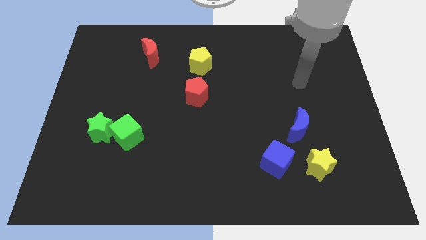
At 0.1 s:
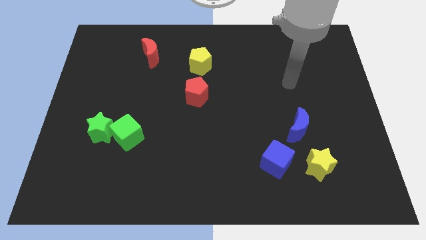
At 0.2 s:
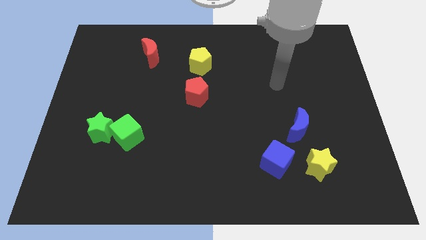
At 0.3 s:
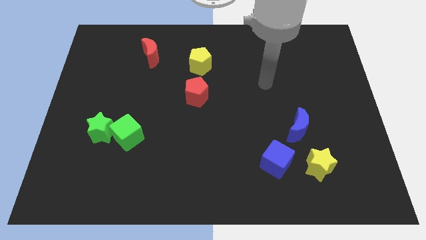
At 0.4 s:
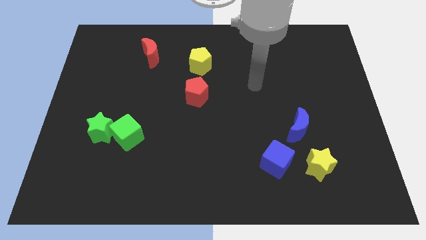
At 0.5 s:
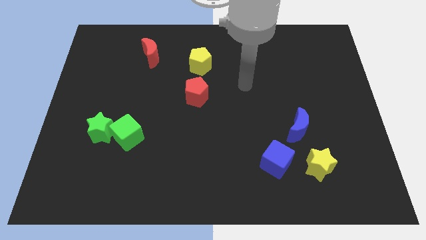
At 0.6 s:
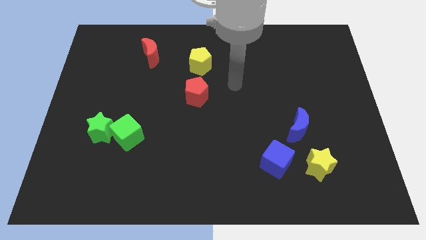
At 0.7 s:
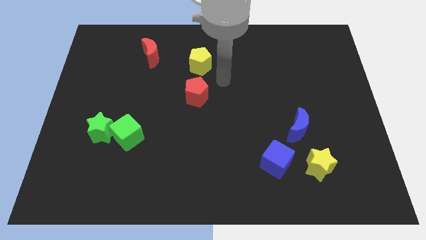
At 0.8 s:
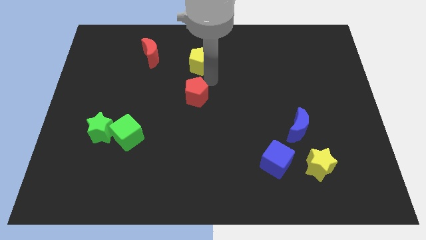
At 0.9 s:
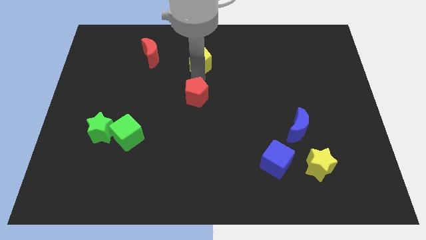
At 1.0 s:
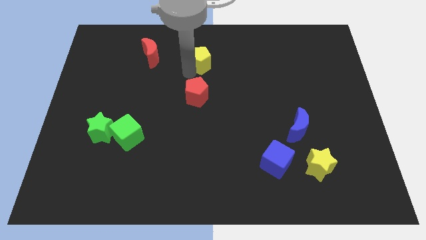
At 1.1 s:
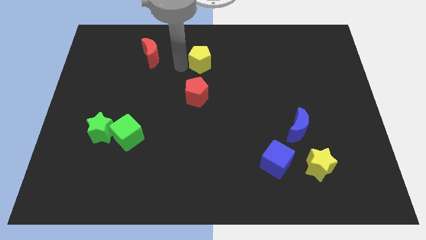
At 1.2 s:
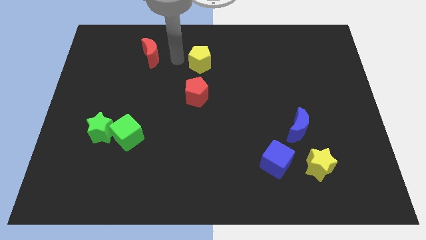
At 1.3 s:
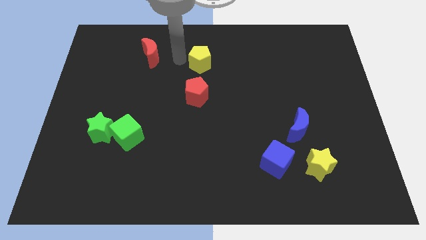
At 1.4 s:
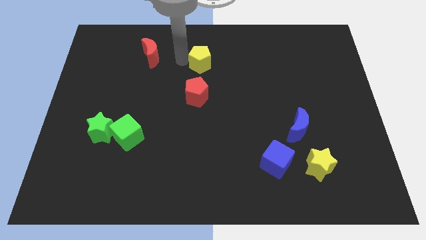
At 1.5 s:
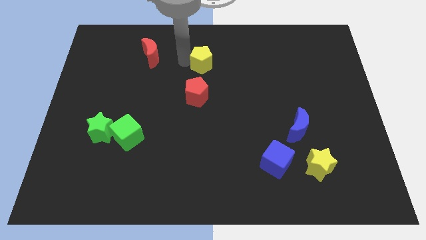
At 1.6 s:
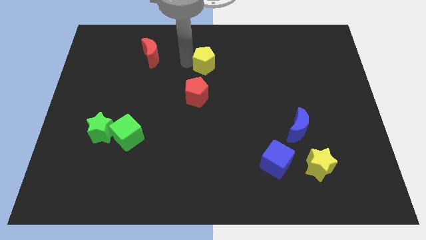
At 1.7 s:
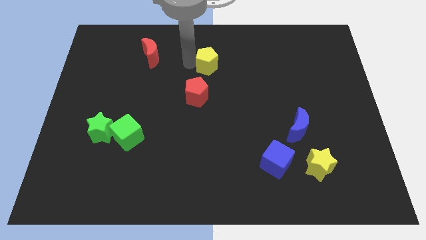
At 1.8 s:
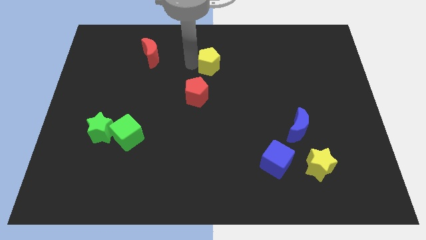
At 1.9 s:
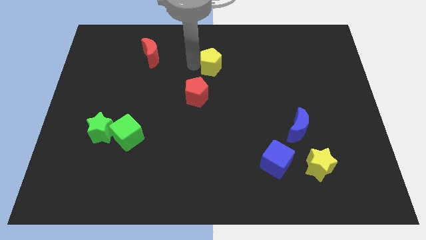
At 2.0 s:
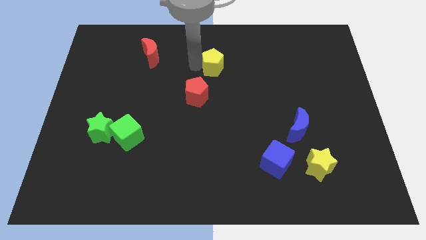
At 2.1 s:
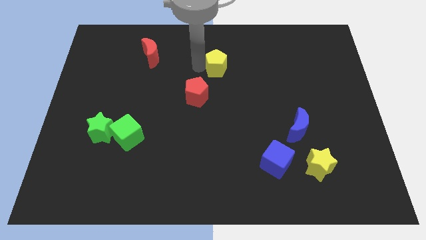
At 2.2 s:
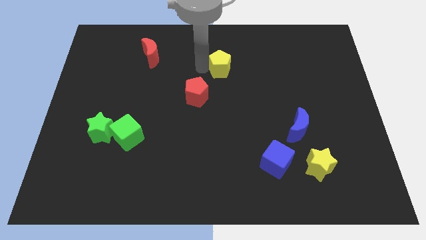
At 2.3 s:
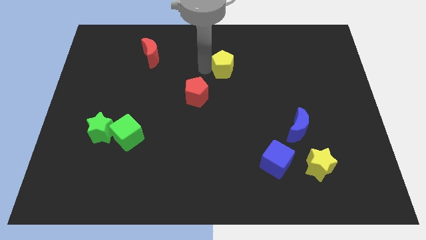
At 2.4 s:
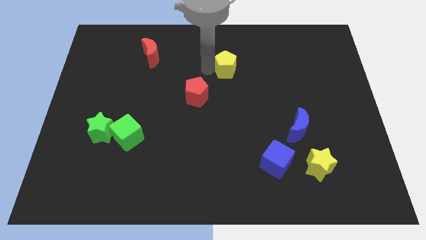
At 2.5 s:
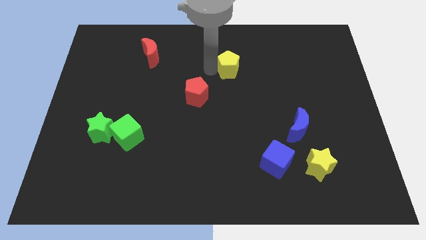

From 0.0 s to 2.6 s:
slide the yellow pentagon to the right a little bit

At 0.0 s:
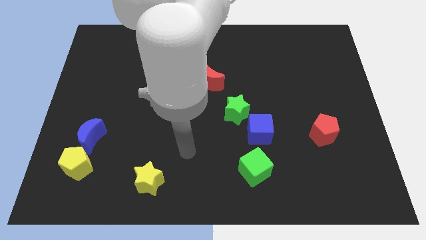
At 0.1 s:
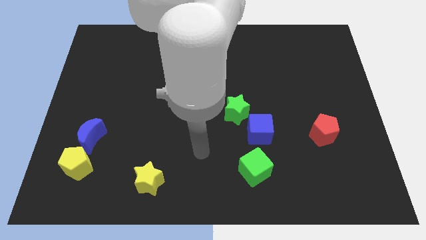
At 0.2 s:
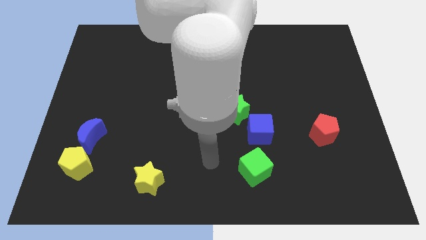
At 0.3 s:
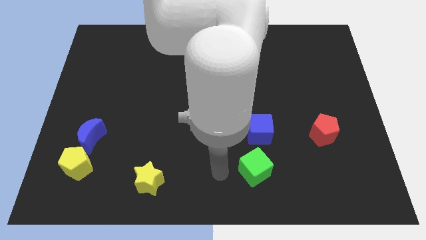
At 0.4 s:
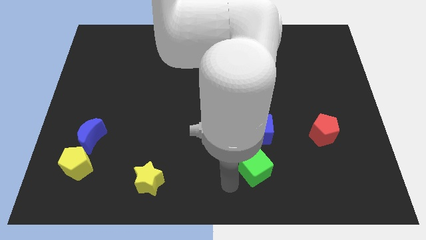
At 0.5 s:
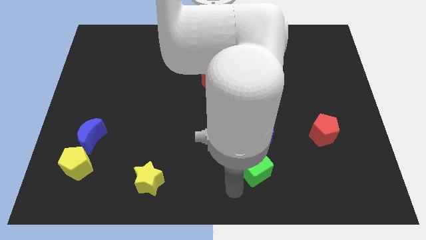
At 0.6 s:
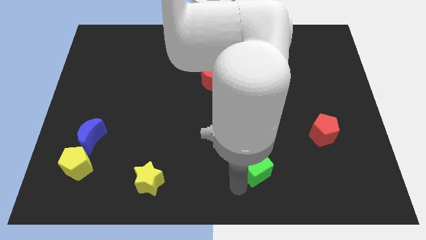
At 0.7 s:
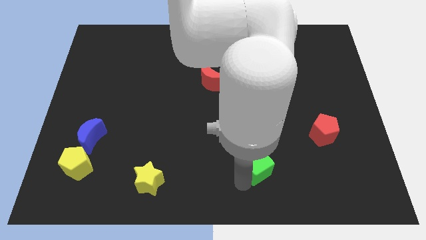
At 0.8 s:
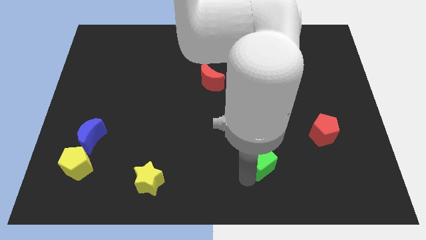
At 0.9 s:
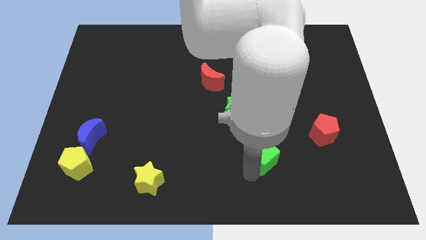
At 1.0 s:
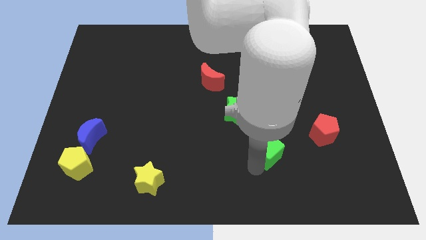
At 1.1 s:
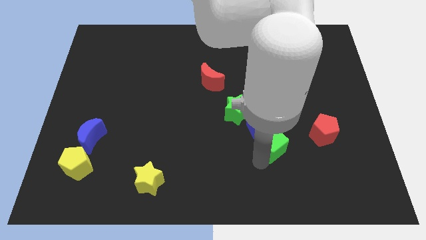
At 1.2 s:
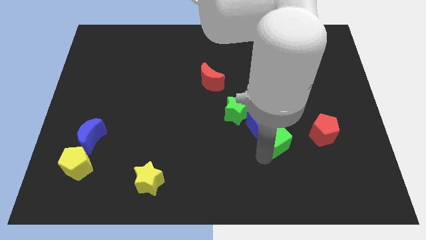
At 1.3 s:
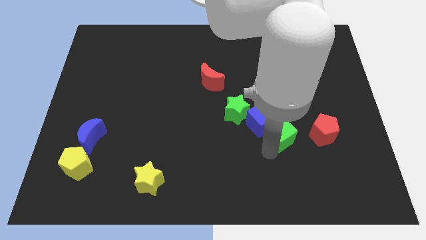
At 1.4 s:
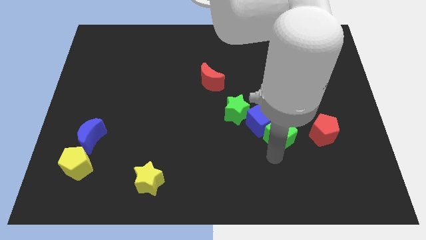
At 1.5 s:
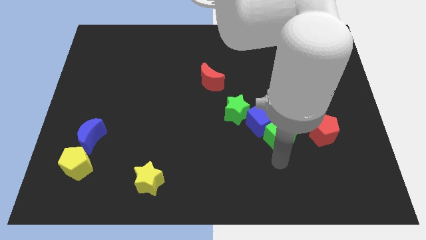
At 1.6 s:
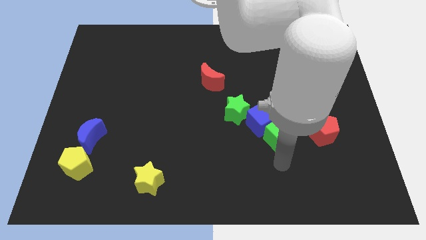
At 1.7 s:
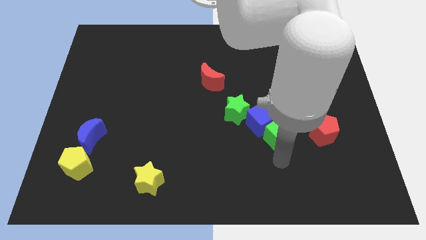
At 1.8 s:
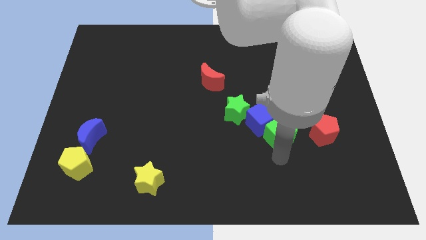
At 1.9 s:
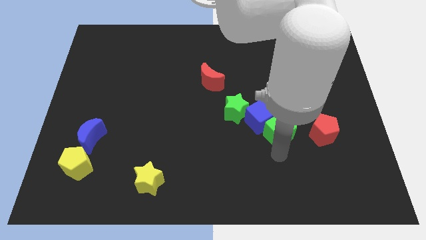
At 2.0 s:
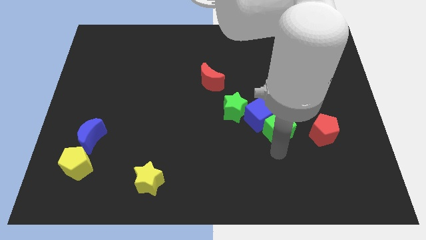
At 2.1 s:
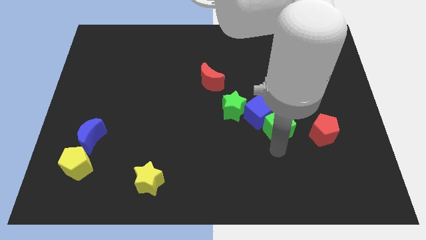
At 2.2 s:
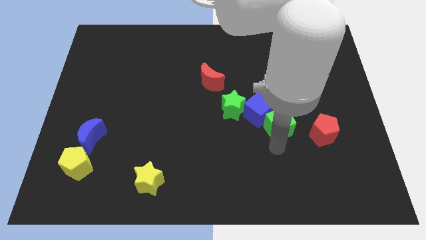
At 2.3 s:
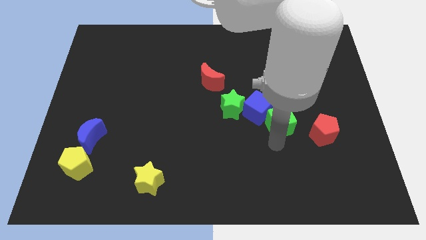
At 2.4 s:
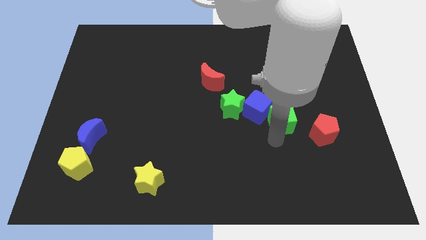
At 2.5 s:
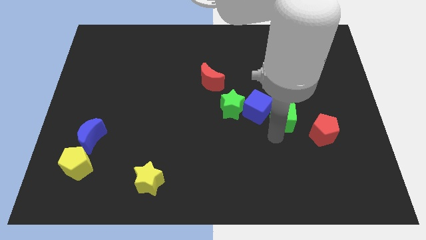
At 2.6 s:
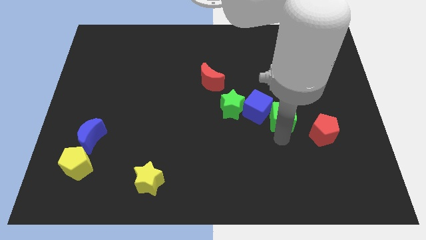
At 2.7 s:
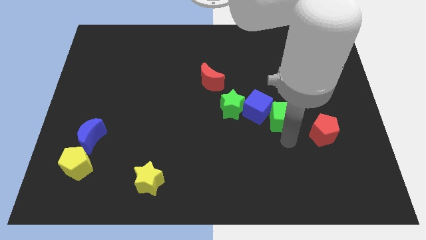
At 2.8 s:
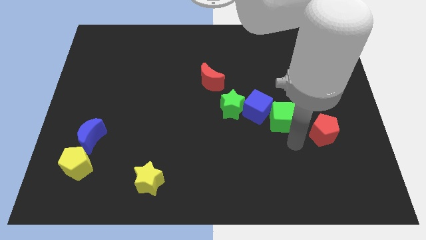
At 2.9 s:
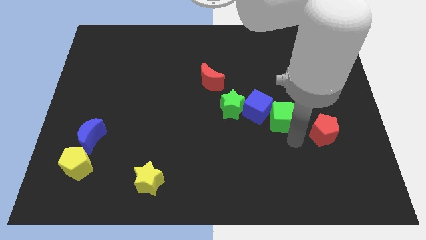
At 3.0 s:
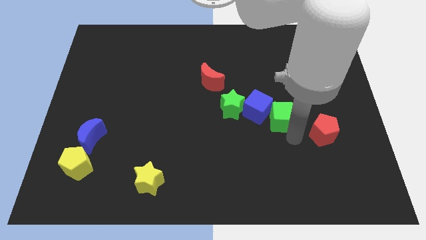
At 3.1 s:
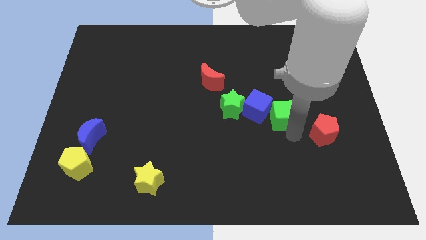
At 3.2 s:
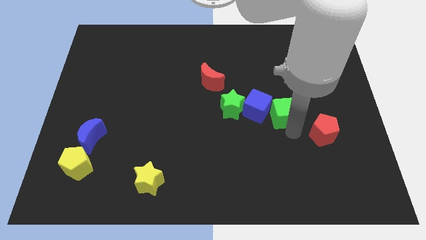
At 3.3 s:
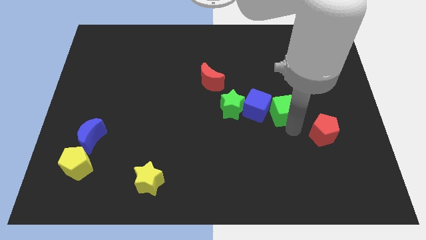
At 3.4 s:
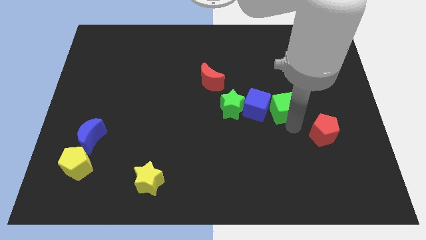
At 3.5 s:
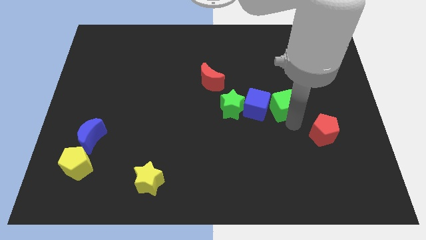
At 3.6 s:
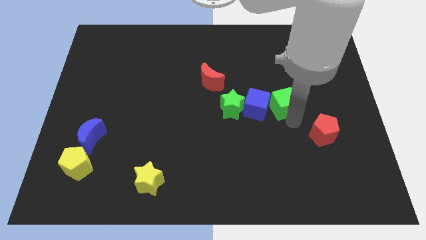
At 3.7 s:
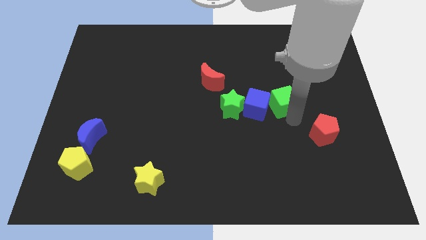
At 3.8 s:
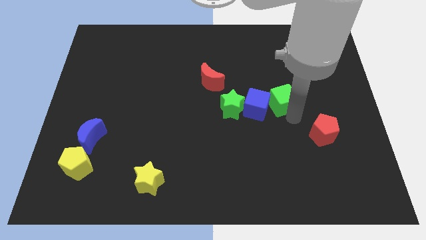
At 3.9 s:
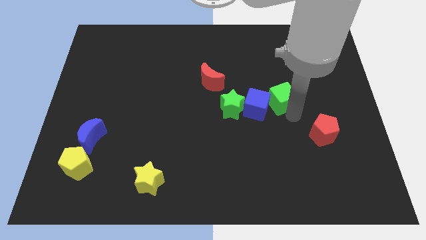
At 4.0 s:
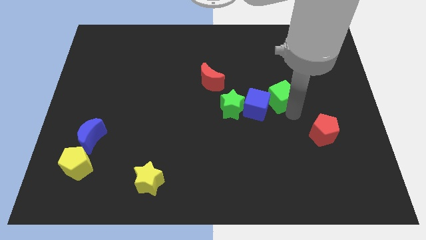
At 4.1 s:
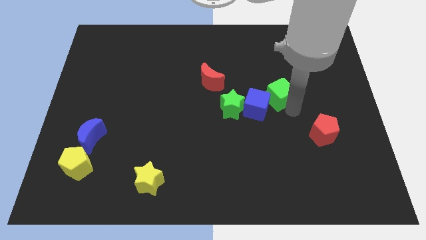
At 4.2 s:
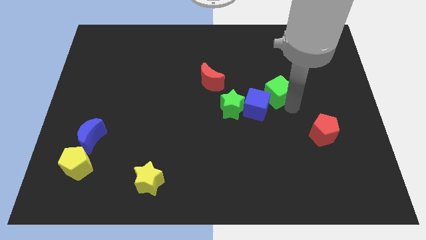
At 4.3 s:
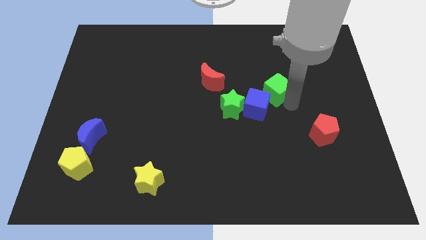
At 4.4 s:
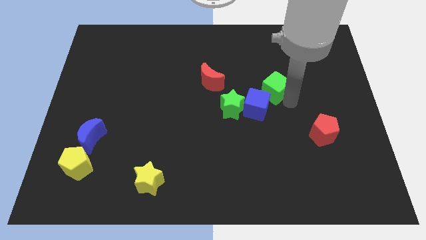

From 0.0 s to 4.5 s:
move the green cube upwards

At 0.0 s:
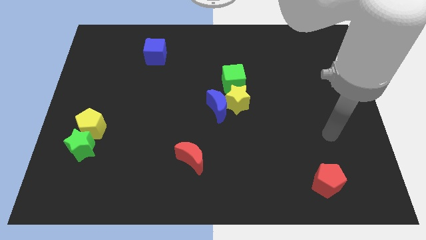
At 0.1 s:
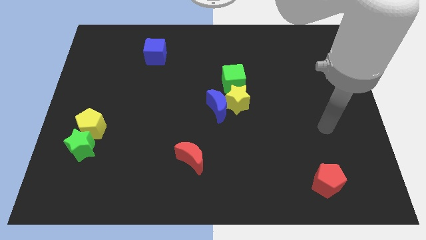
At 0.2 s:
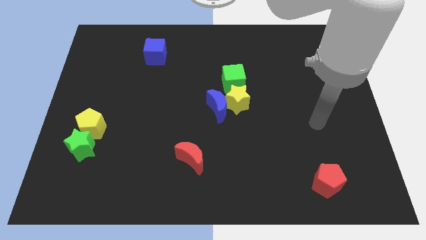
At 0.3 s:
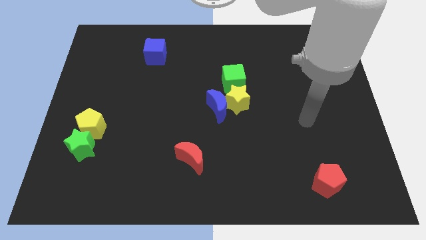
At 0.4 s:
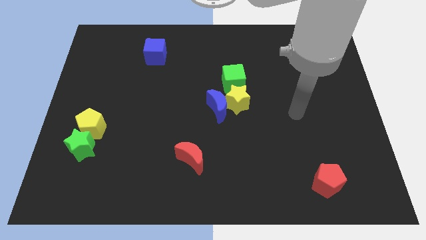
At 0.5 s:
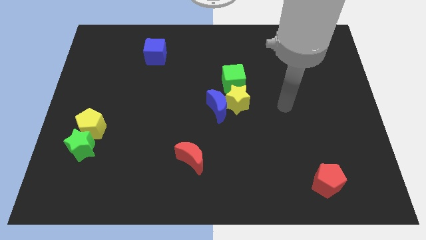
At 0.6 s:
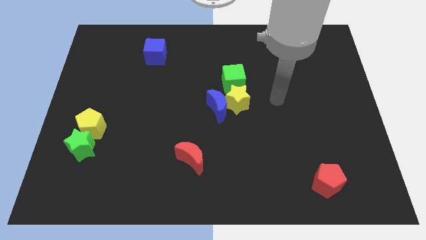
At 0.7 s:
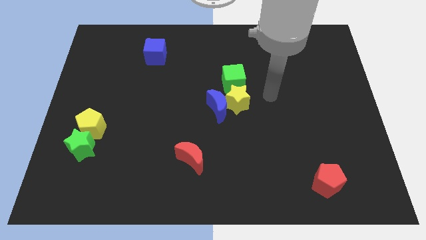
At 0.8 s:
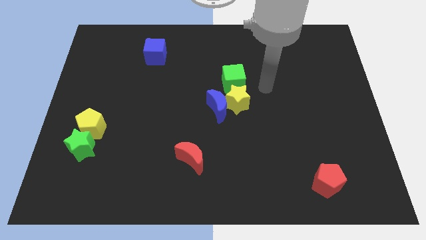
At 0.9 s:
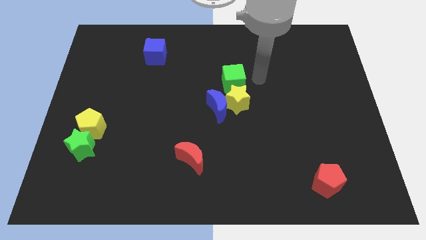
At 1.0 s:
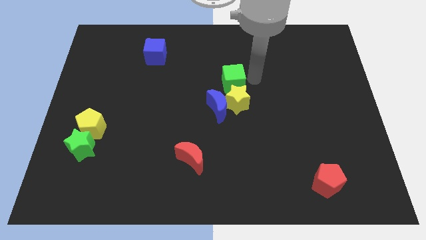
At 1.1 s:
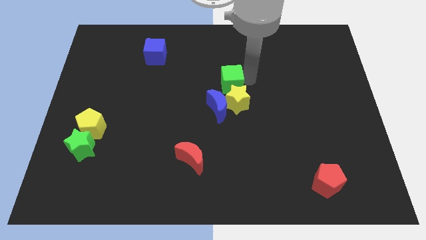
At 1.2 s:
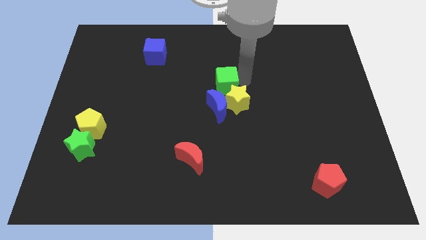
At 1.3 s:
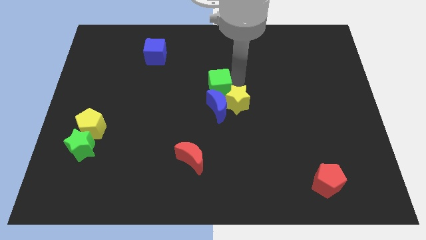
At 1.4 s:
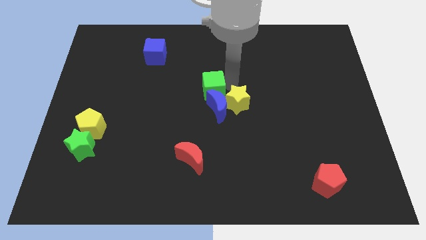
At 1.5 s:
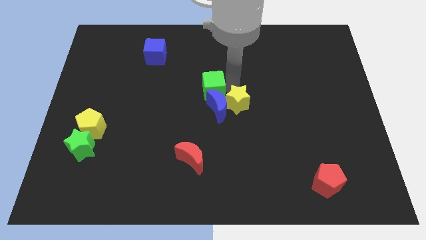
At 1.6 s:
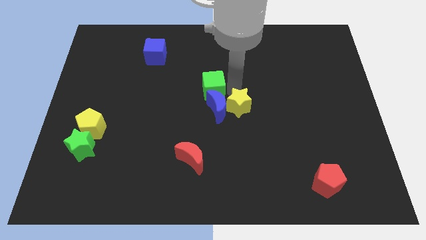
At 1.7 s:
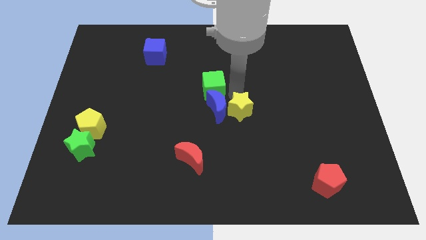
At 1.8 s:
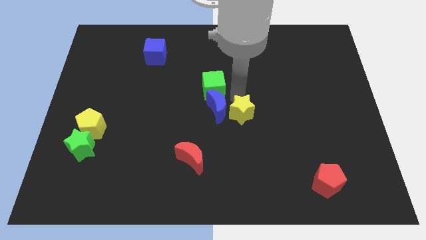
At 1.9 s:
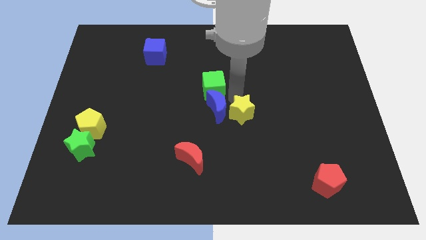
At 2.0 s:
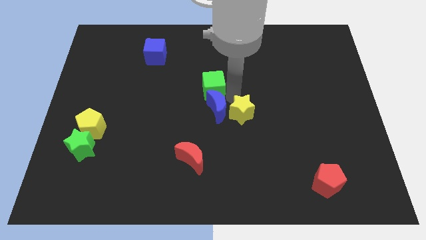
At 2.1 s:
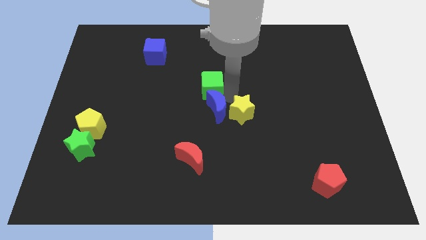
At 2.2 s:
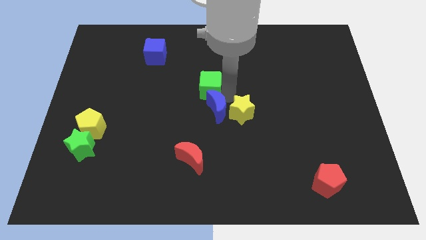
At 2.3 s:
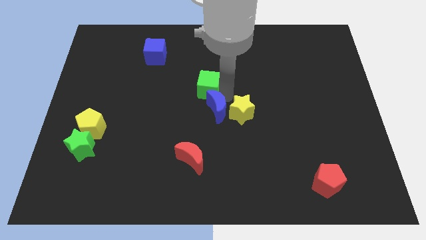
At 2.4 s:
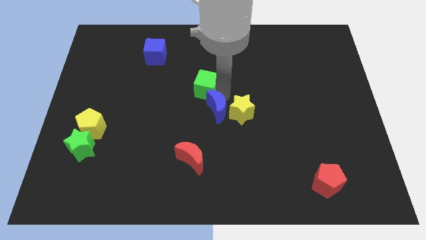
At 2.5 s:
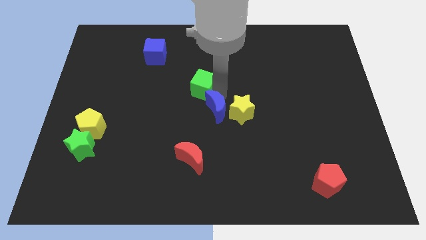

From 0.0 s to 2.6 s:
push the green cube a little bit left
